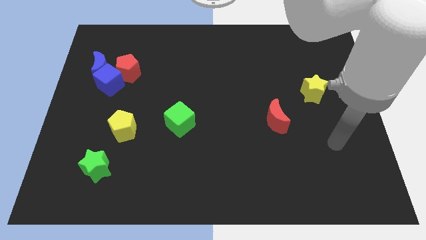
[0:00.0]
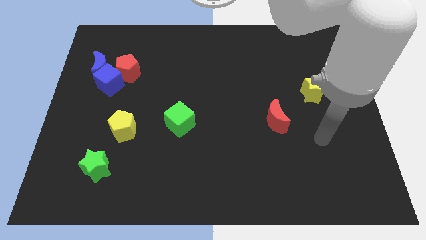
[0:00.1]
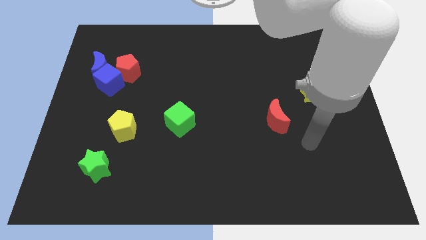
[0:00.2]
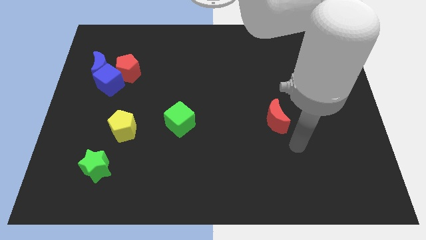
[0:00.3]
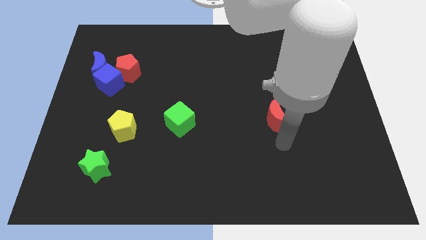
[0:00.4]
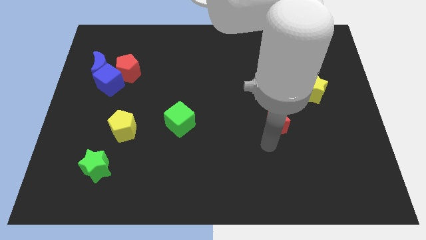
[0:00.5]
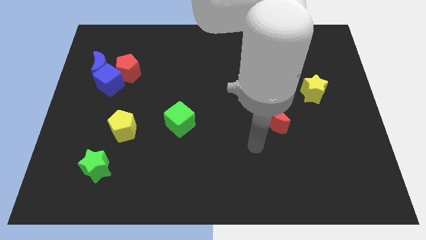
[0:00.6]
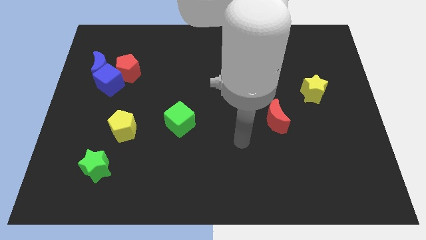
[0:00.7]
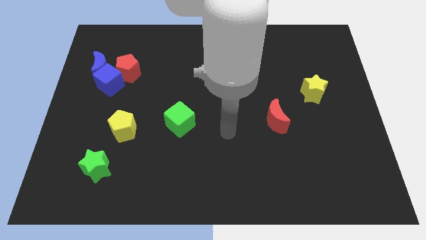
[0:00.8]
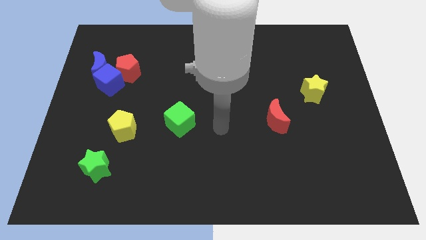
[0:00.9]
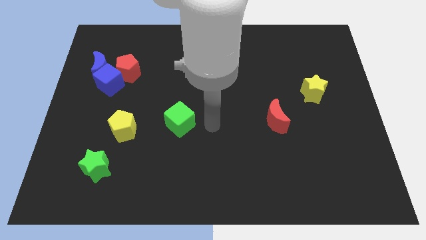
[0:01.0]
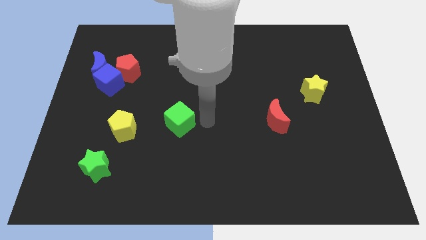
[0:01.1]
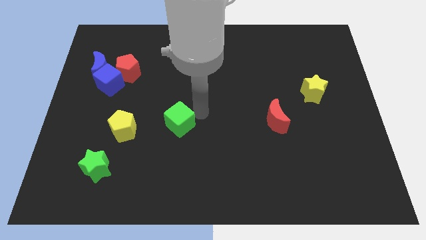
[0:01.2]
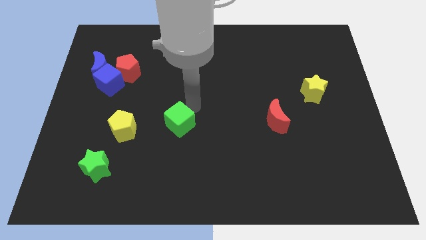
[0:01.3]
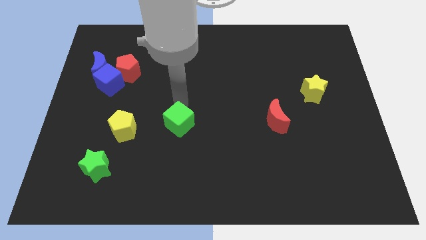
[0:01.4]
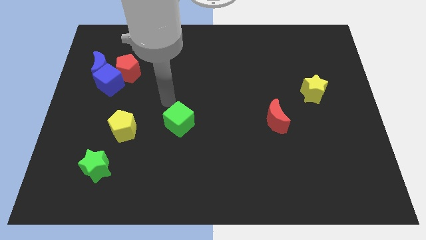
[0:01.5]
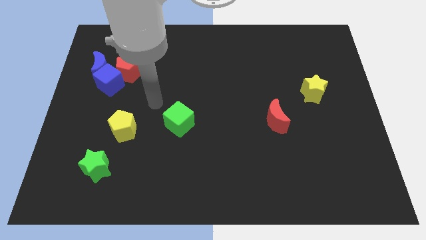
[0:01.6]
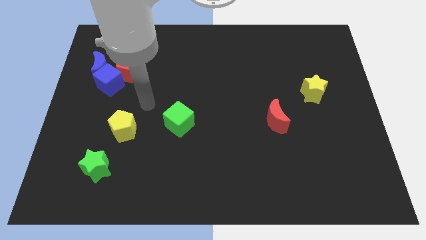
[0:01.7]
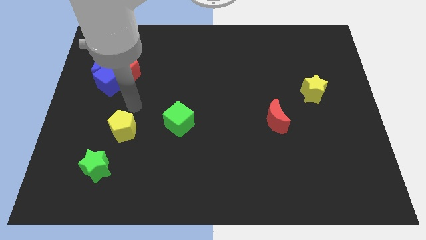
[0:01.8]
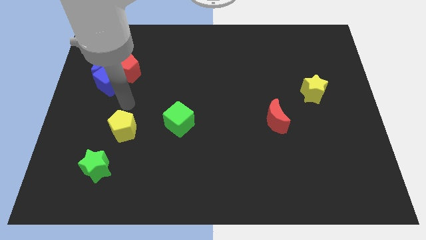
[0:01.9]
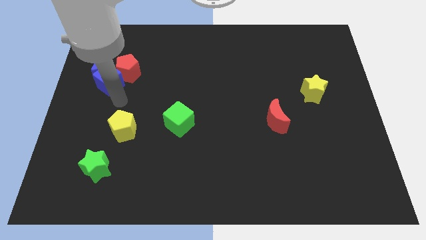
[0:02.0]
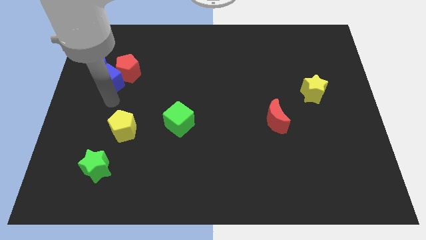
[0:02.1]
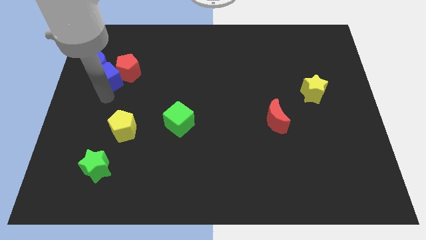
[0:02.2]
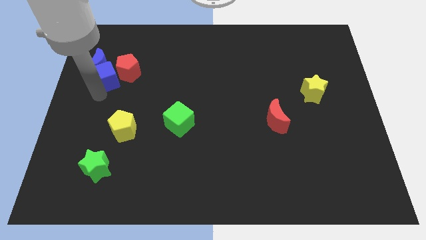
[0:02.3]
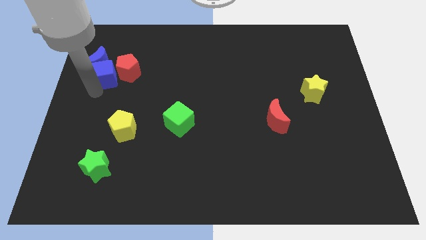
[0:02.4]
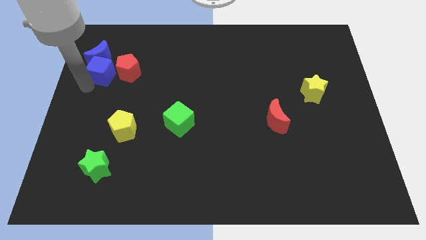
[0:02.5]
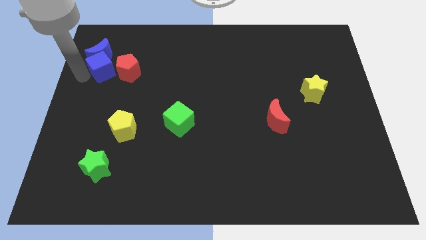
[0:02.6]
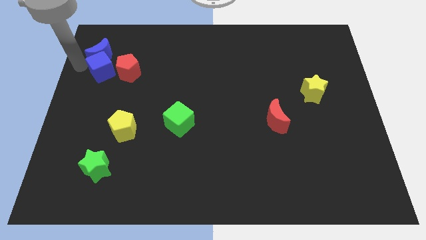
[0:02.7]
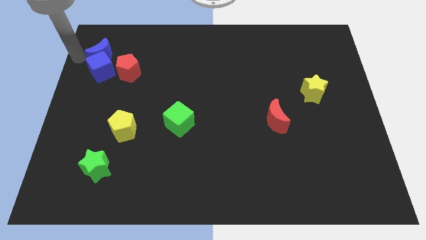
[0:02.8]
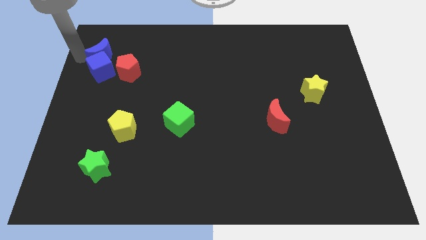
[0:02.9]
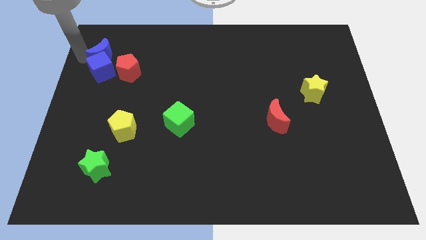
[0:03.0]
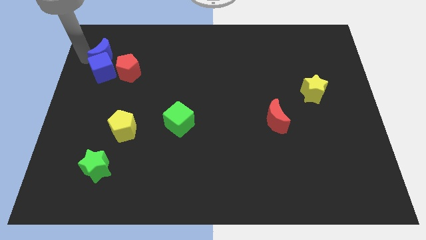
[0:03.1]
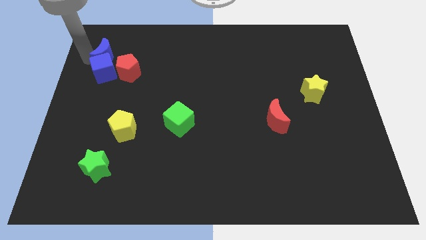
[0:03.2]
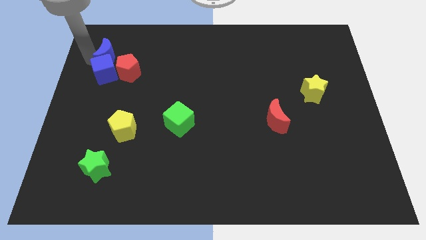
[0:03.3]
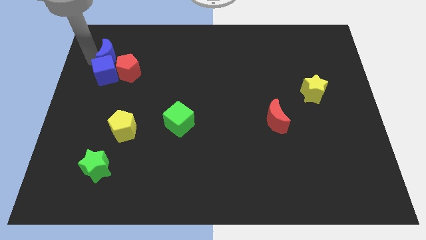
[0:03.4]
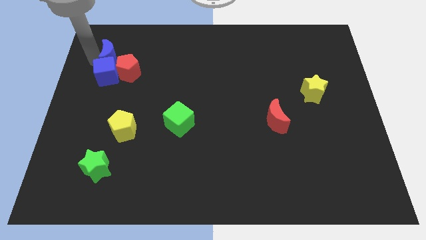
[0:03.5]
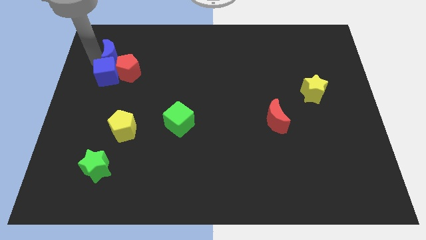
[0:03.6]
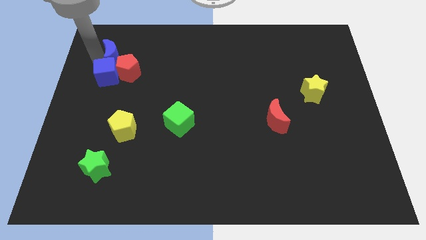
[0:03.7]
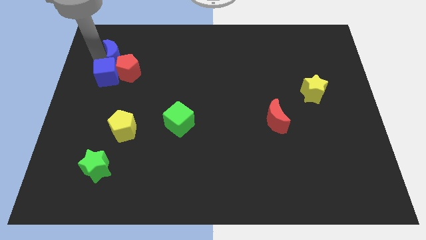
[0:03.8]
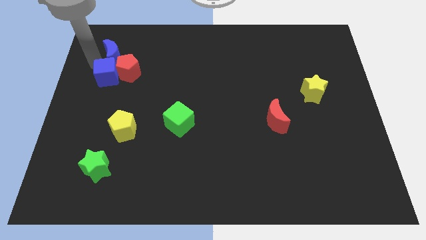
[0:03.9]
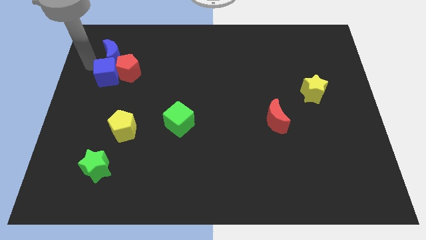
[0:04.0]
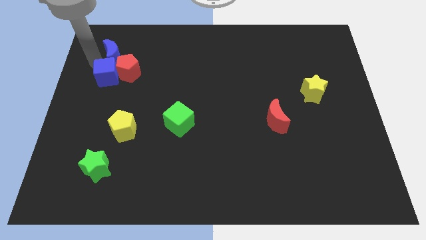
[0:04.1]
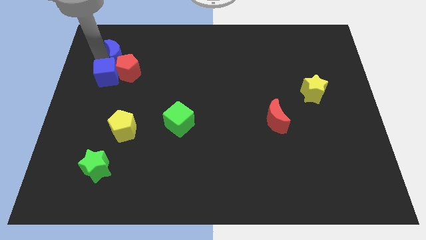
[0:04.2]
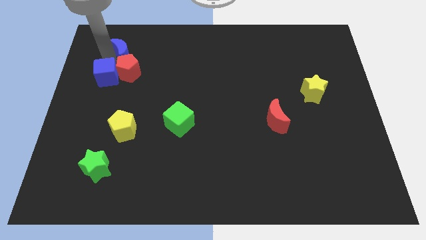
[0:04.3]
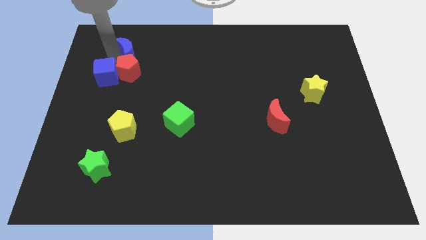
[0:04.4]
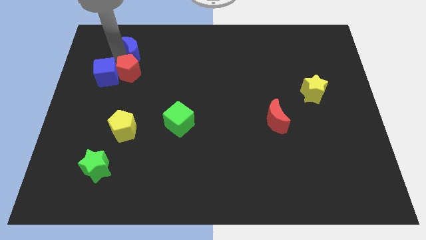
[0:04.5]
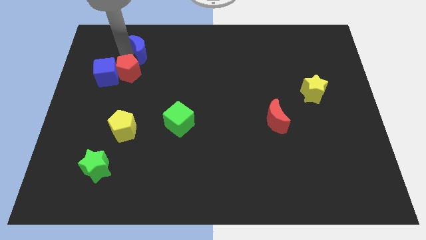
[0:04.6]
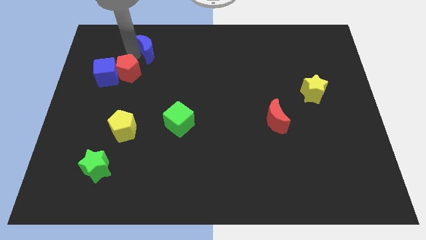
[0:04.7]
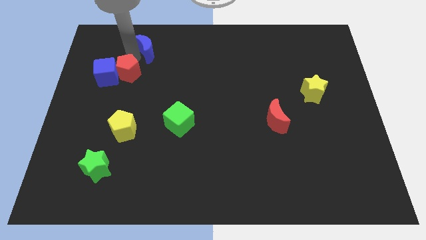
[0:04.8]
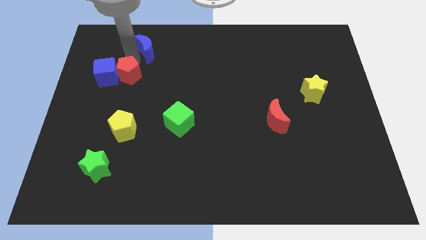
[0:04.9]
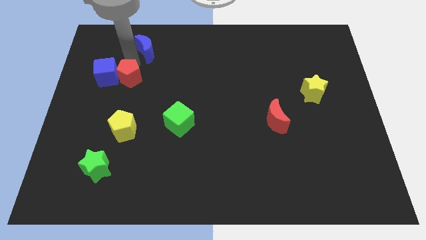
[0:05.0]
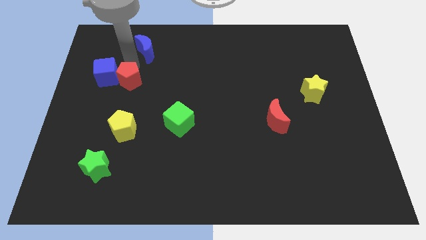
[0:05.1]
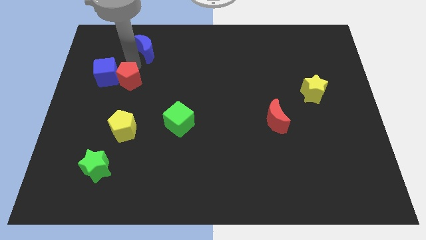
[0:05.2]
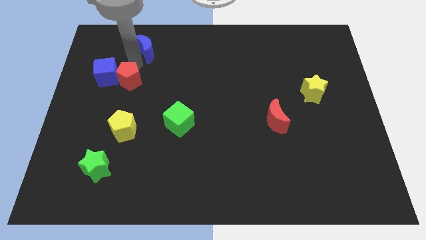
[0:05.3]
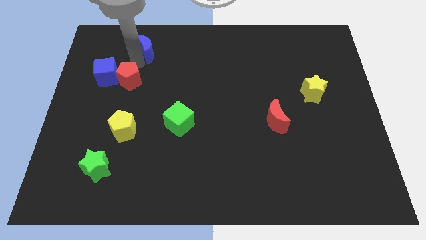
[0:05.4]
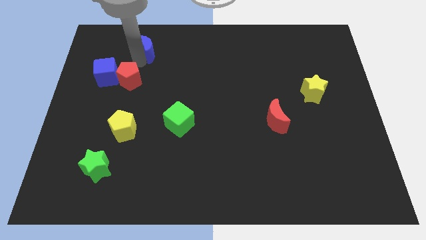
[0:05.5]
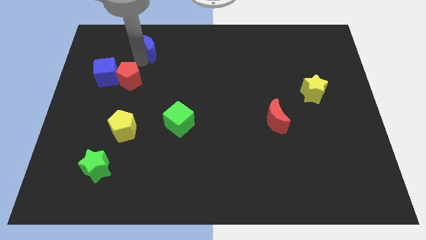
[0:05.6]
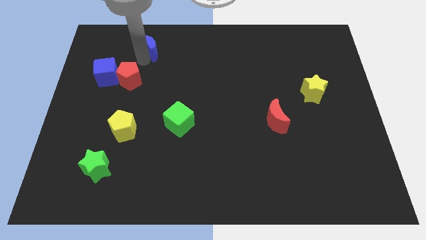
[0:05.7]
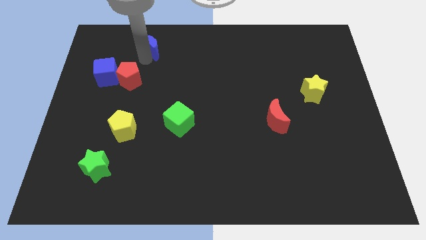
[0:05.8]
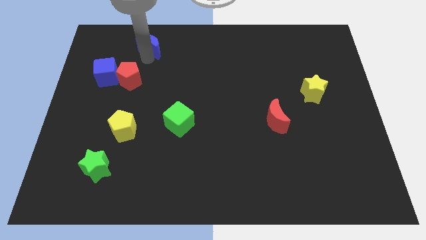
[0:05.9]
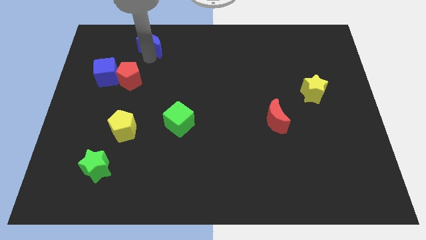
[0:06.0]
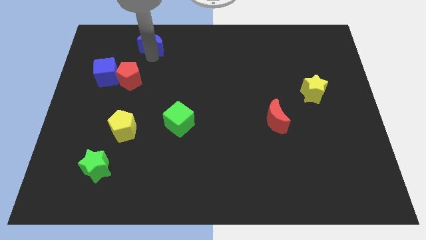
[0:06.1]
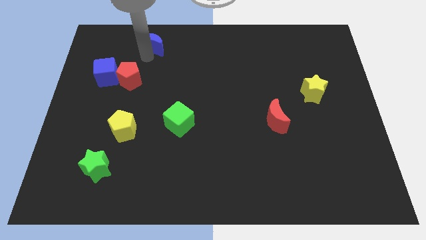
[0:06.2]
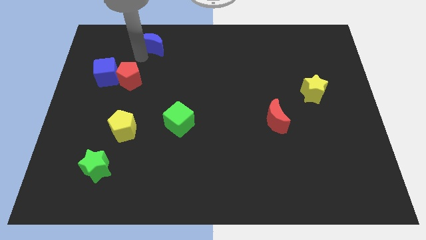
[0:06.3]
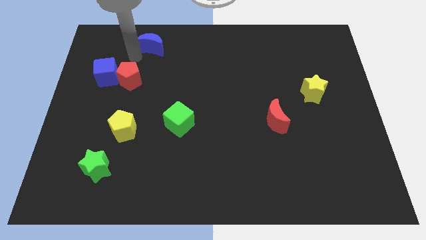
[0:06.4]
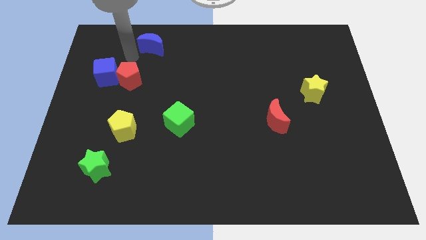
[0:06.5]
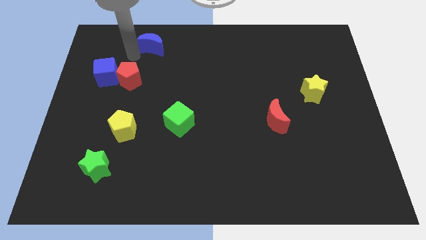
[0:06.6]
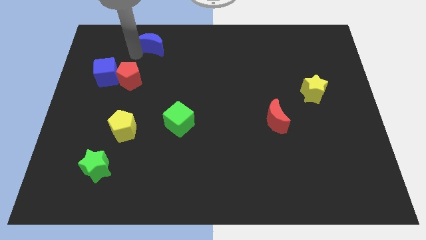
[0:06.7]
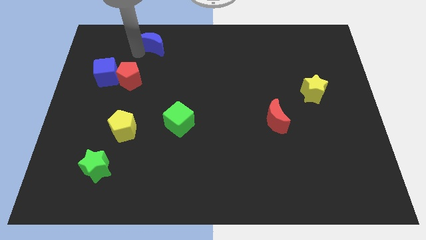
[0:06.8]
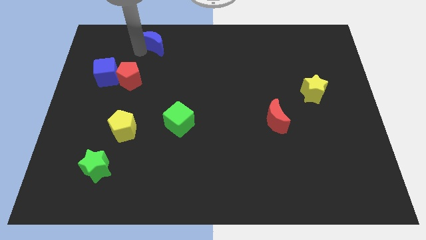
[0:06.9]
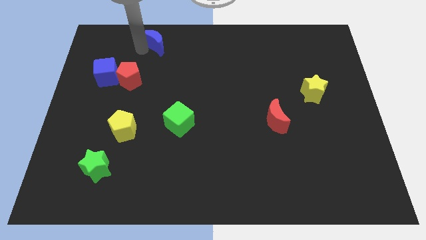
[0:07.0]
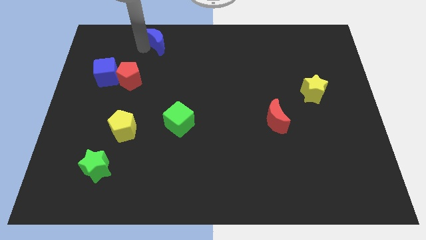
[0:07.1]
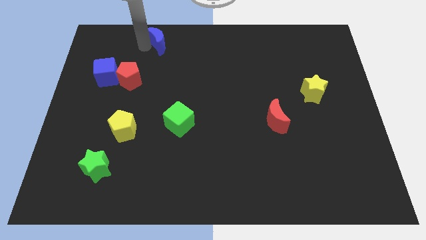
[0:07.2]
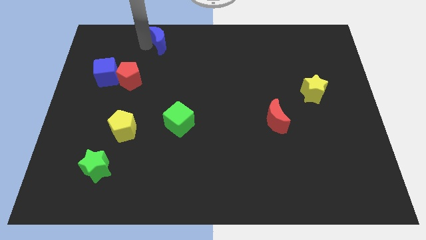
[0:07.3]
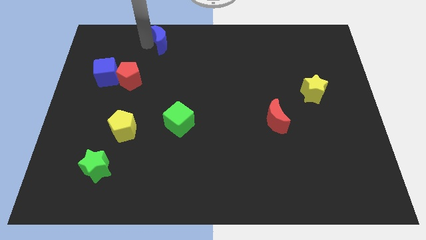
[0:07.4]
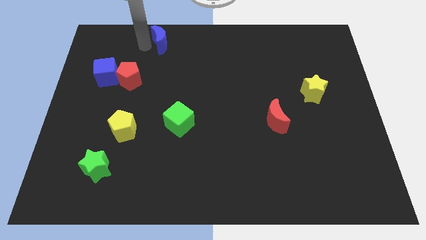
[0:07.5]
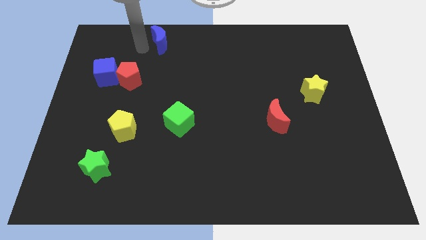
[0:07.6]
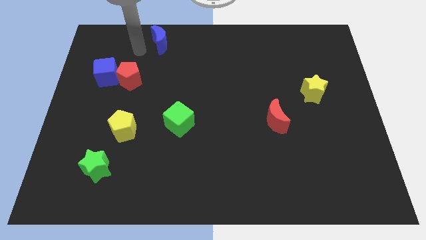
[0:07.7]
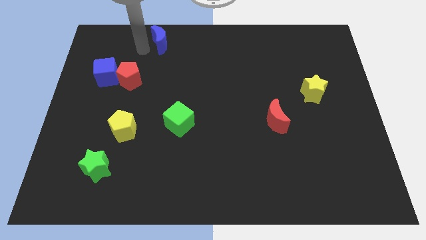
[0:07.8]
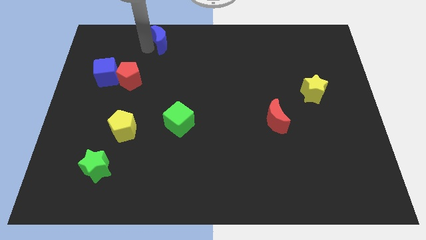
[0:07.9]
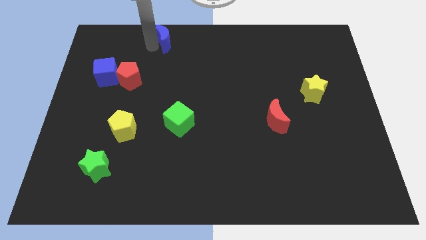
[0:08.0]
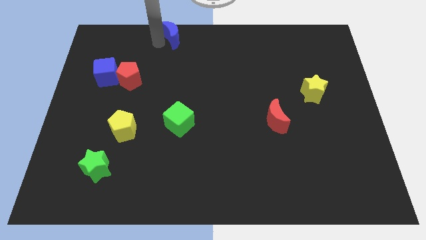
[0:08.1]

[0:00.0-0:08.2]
push the blue moon to the towards your base
